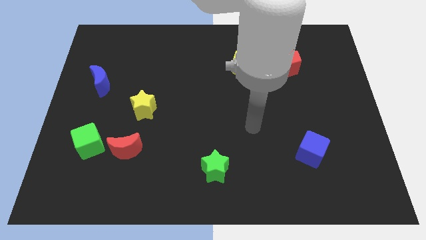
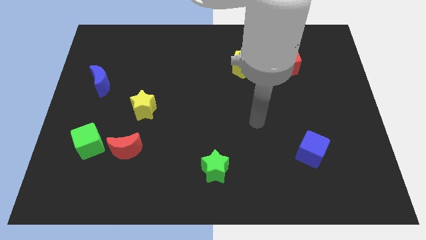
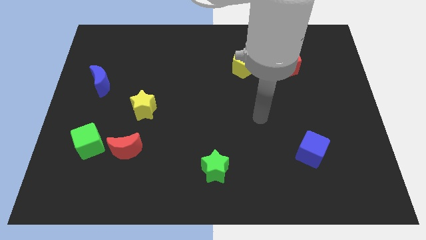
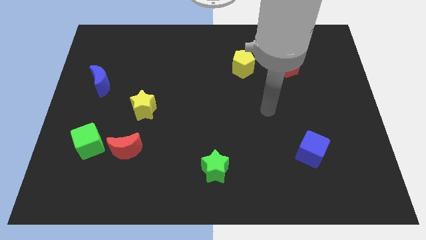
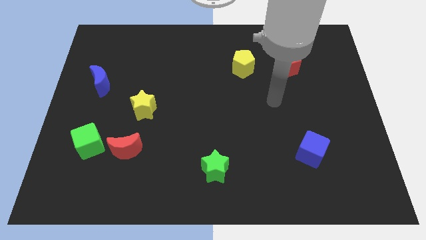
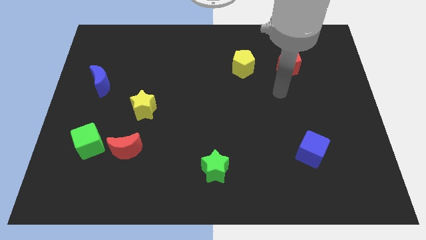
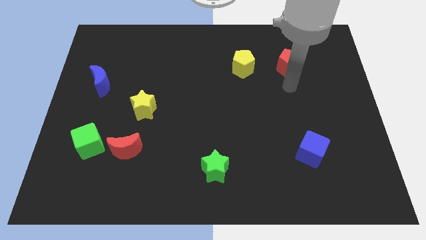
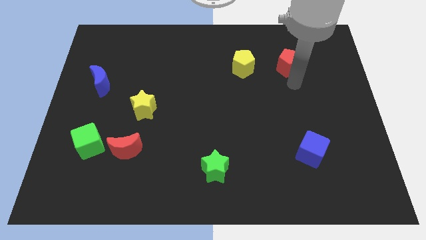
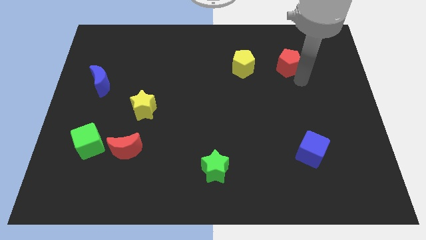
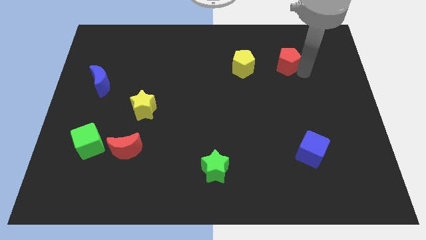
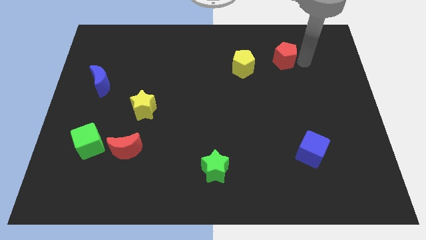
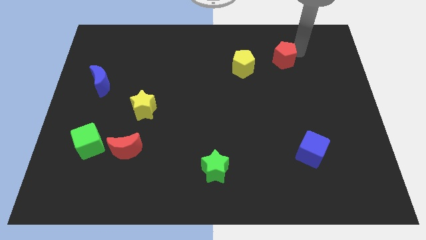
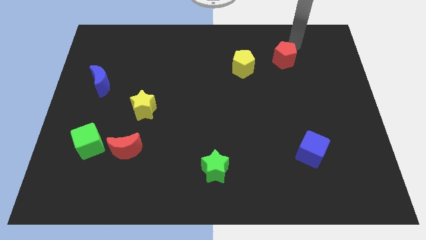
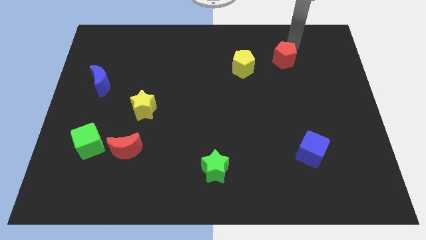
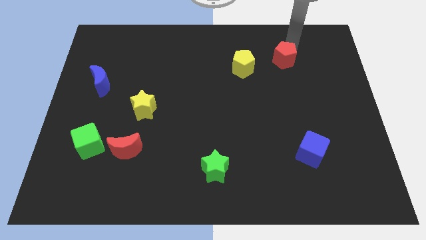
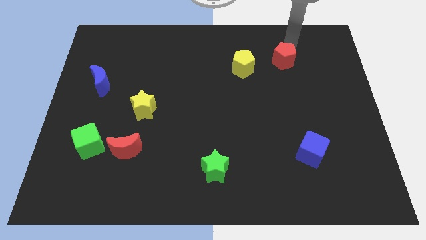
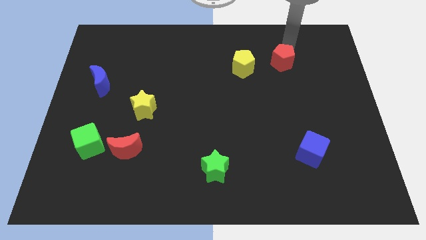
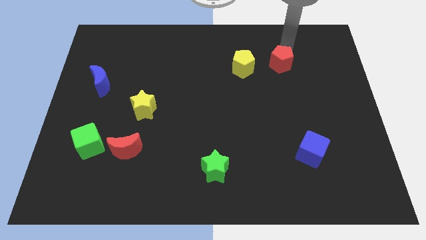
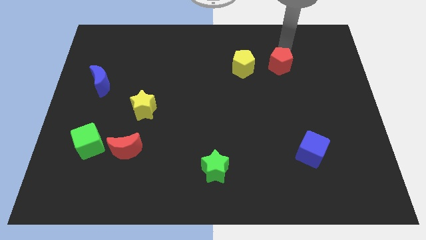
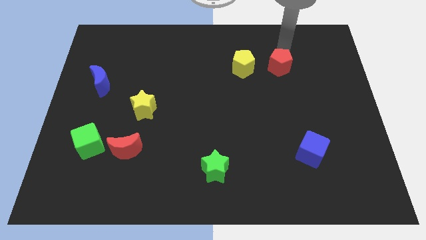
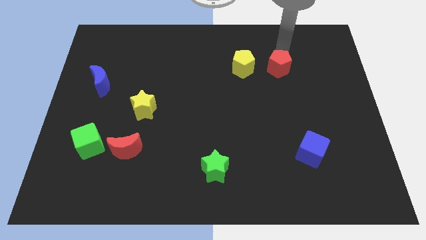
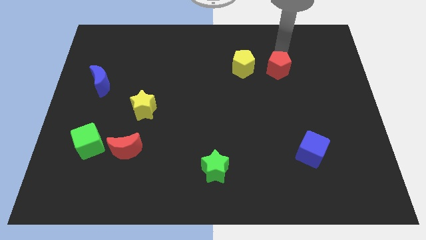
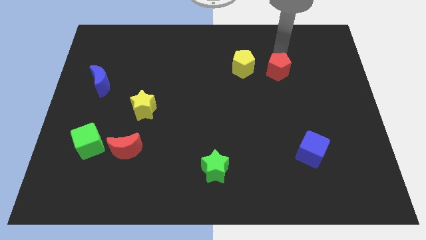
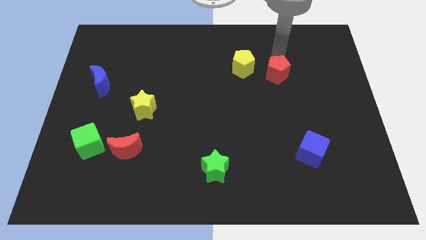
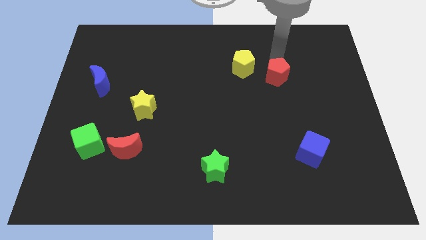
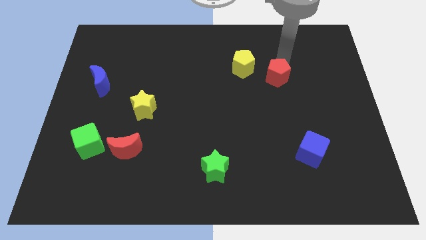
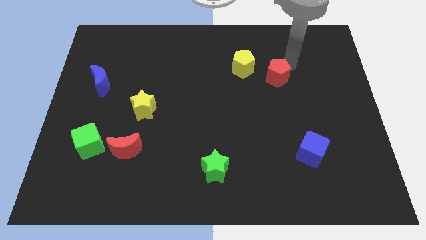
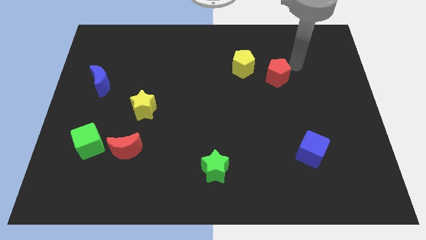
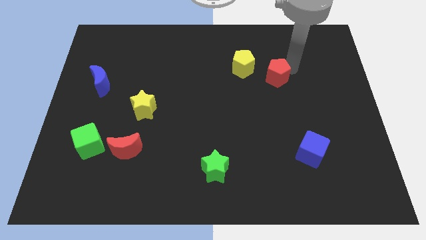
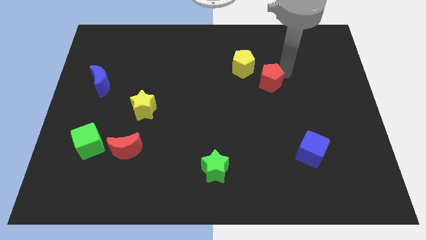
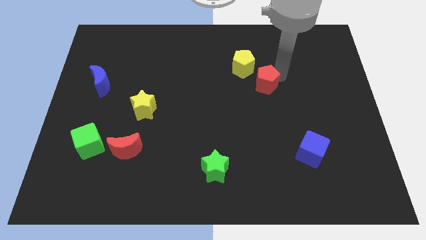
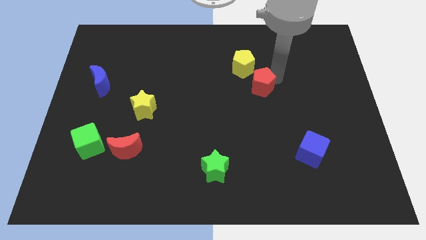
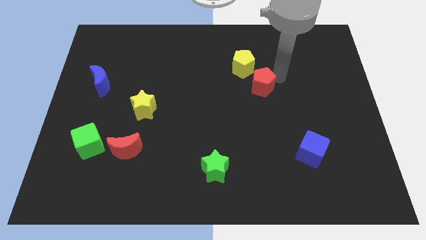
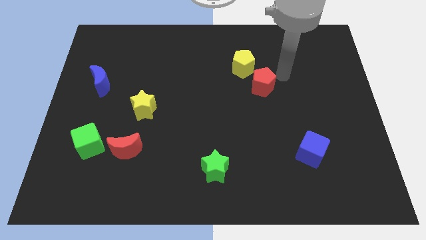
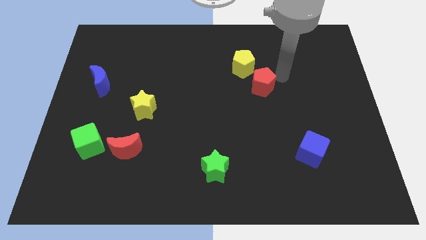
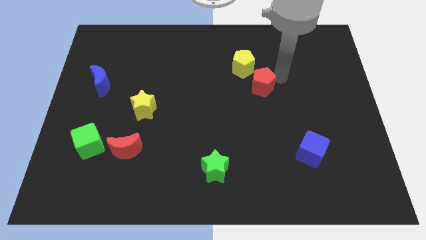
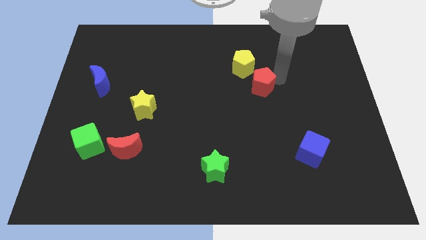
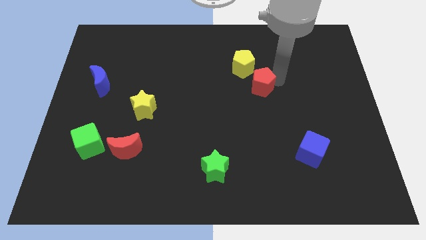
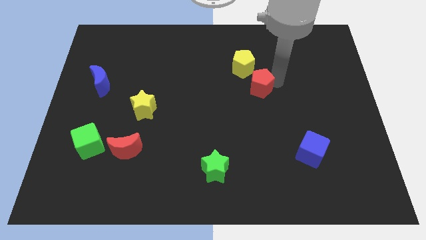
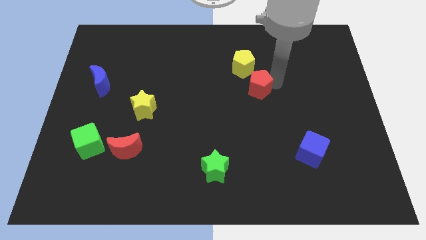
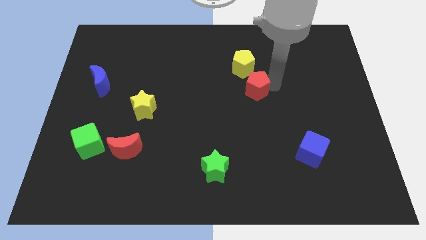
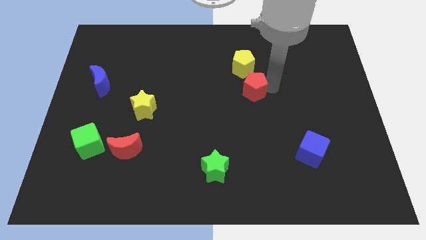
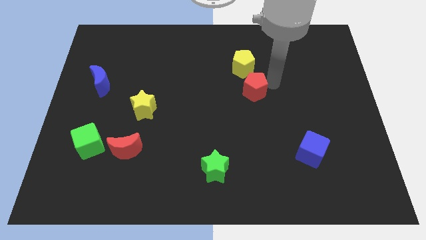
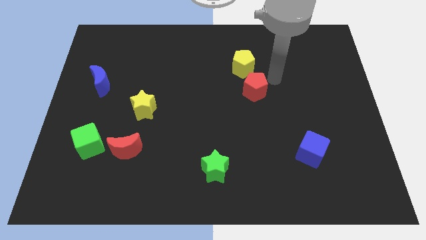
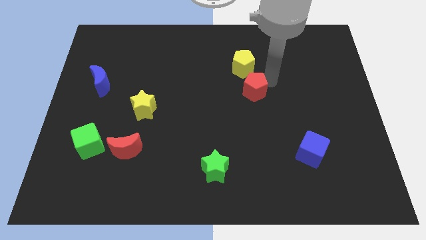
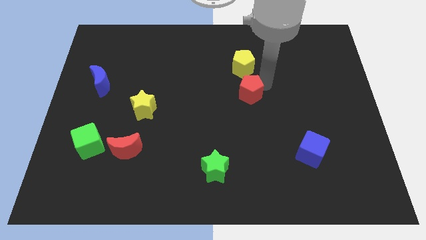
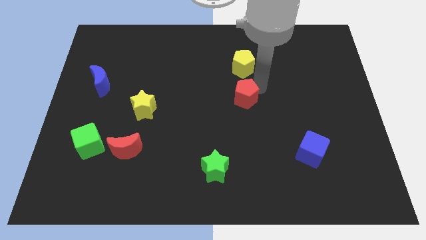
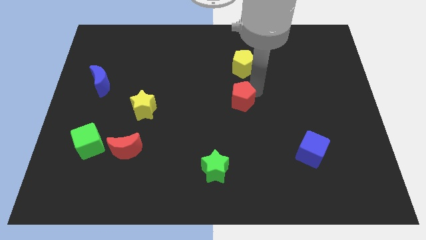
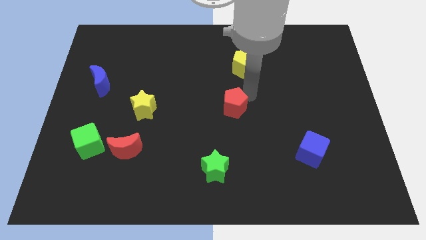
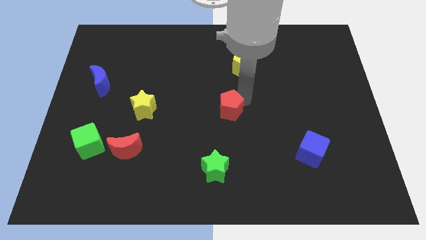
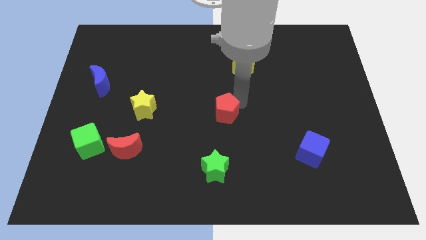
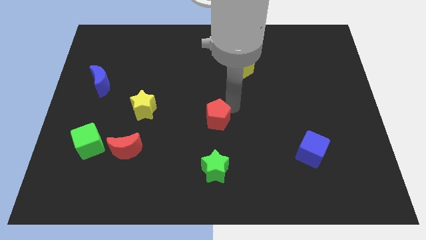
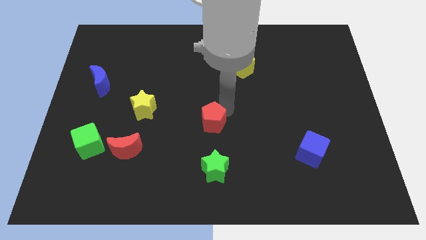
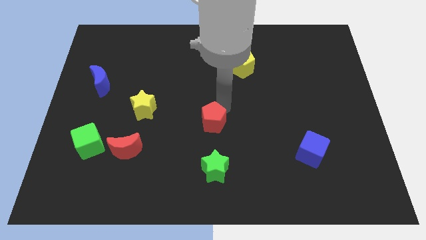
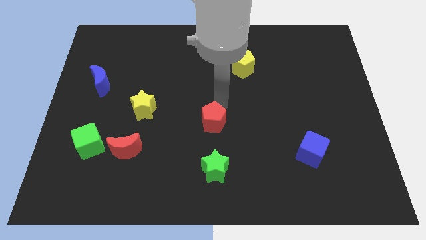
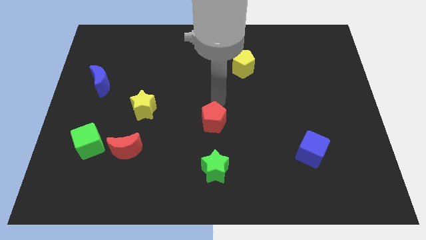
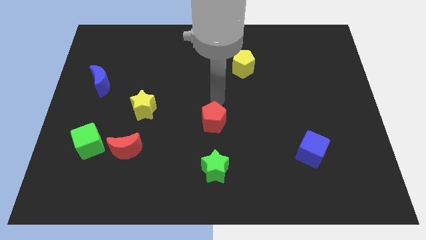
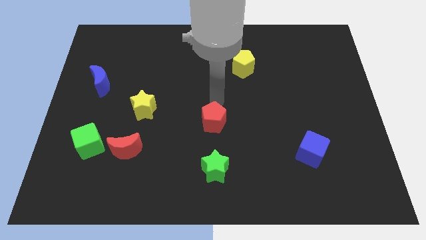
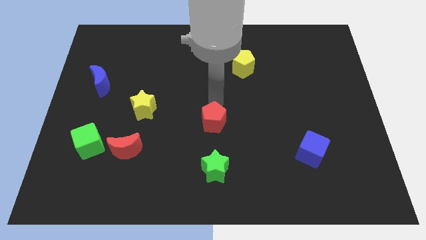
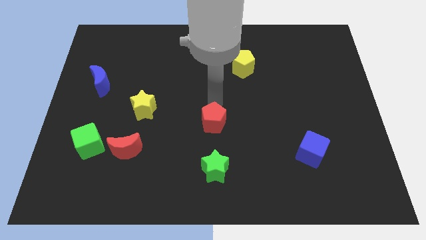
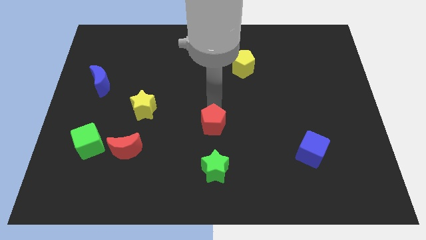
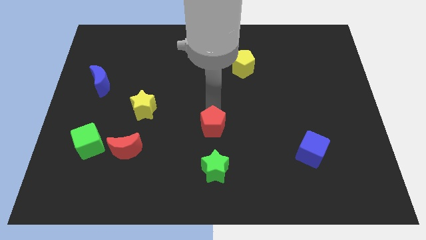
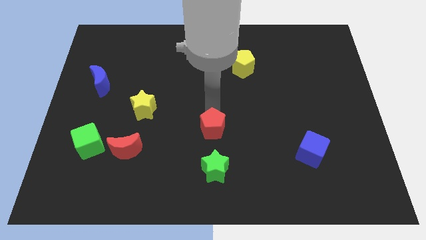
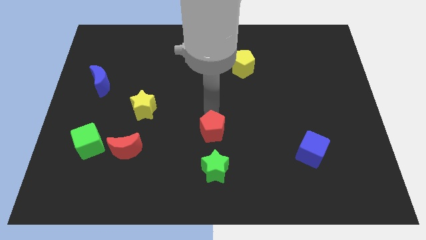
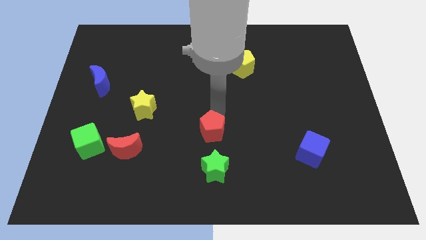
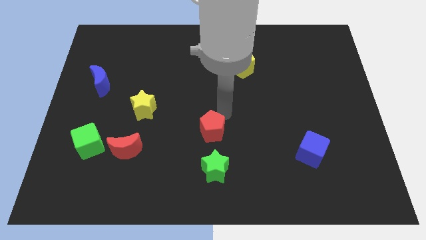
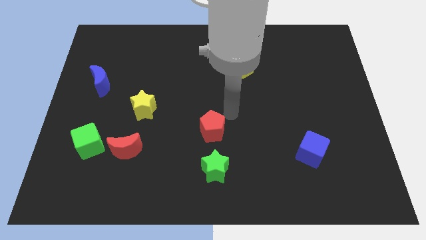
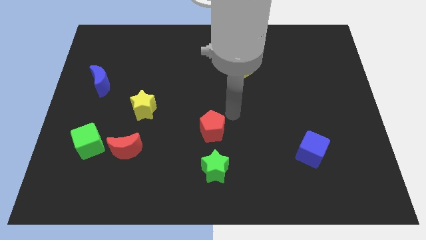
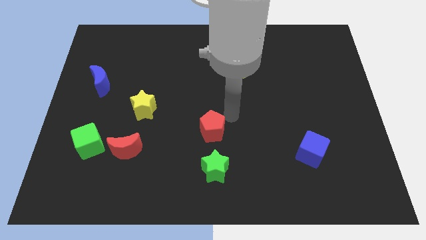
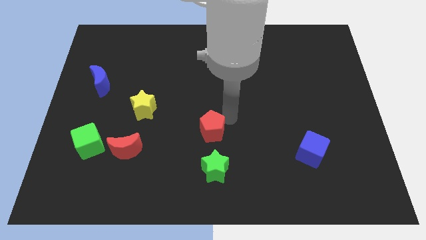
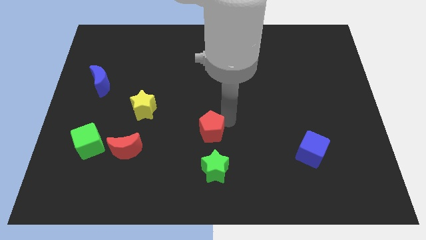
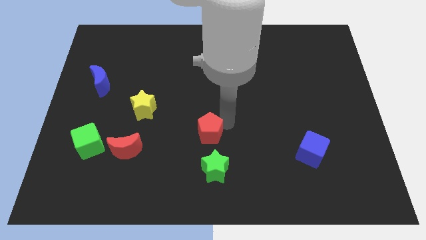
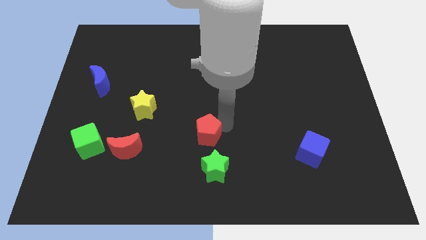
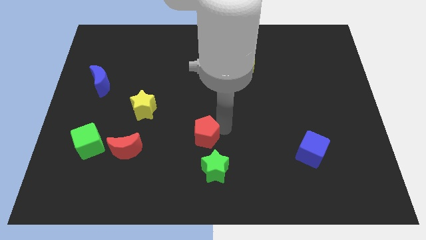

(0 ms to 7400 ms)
put the red pentagon to the top left side of the green star

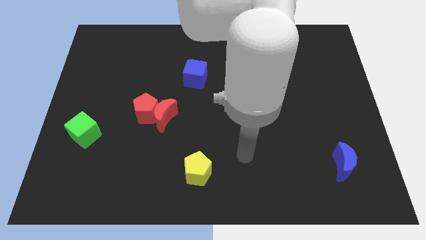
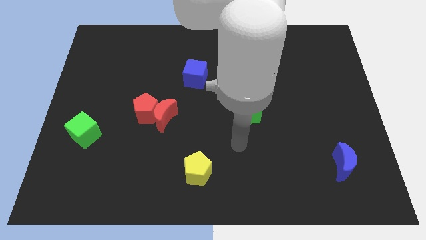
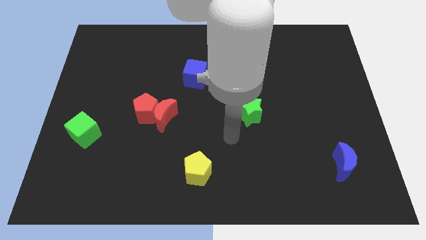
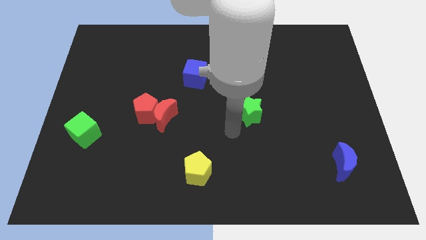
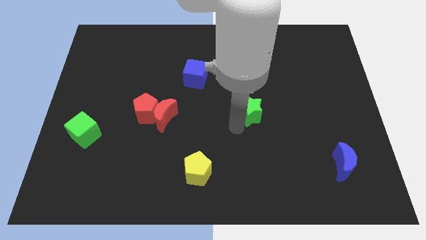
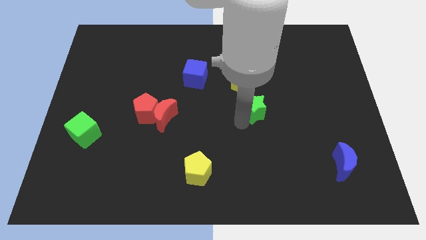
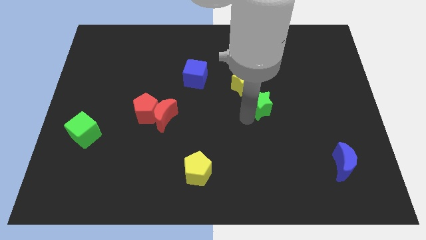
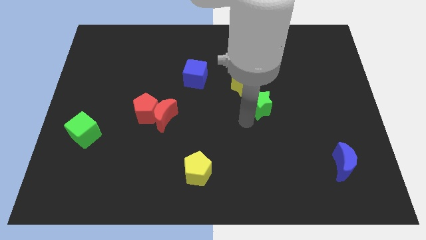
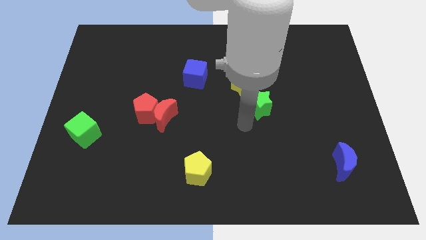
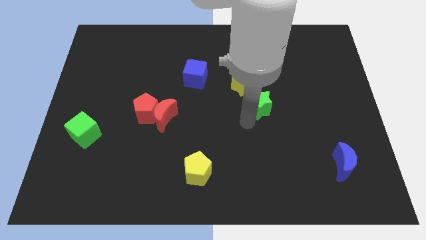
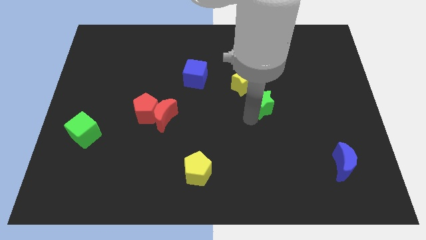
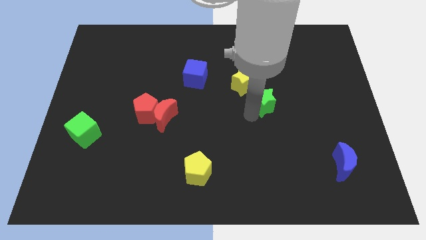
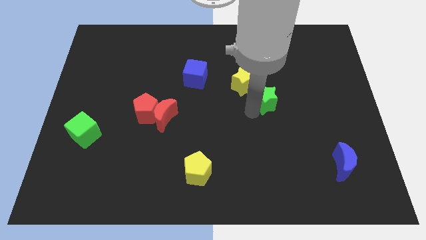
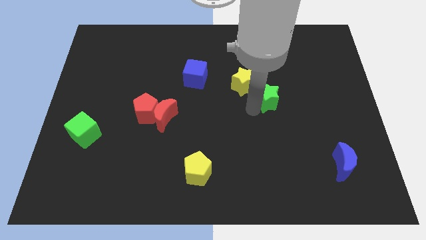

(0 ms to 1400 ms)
put the green star to the right of the yellow star
